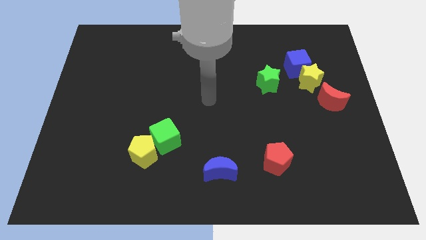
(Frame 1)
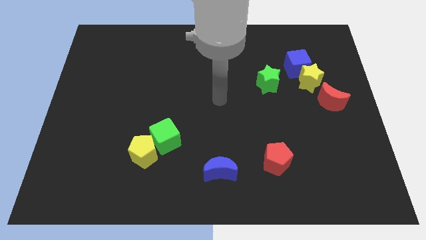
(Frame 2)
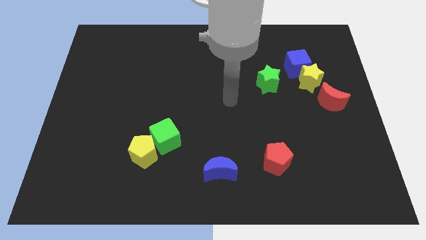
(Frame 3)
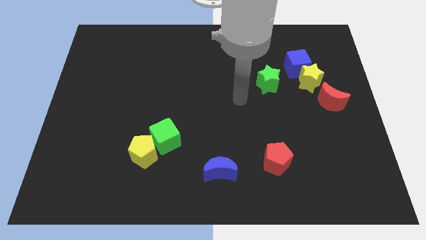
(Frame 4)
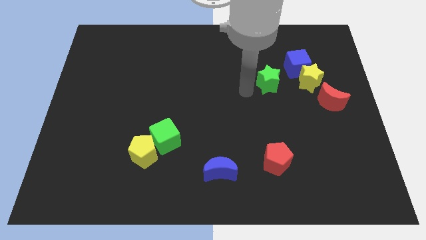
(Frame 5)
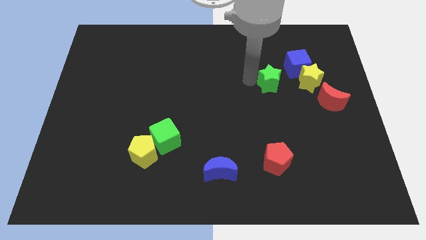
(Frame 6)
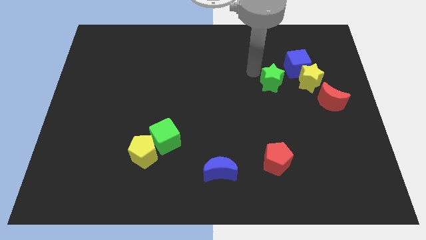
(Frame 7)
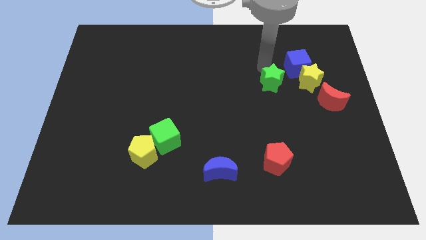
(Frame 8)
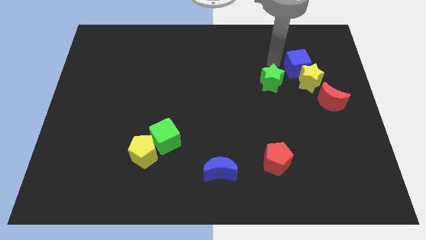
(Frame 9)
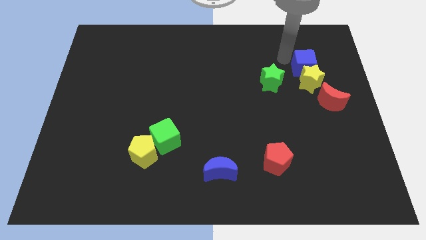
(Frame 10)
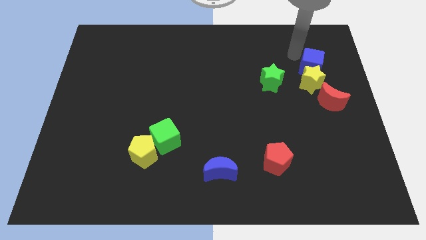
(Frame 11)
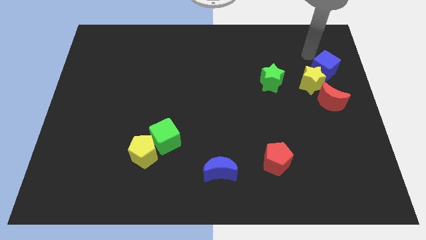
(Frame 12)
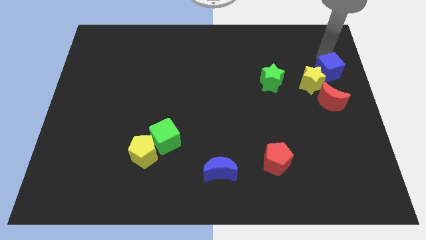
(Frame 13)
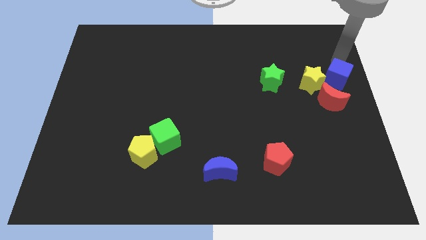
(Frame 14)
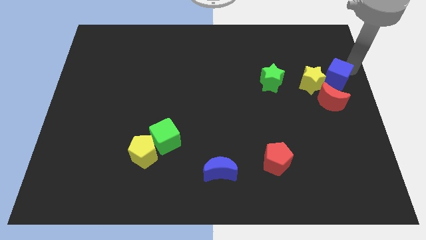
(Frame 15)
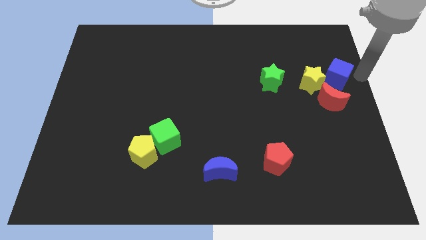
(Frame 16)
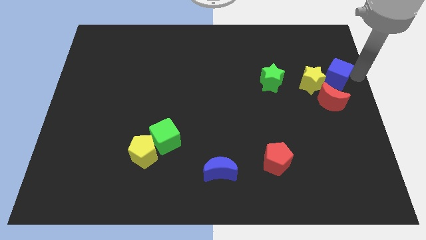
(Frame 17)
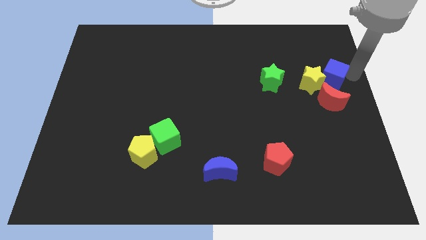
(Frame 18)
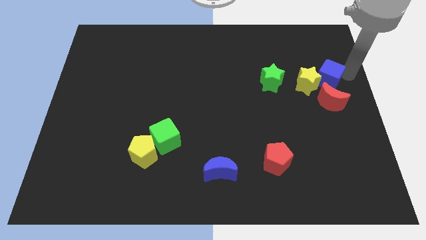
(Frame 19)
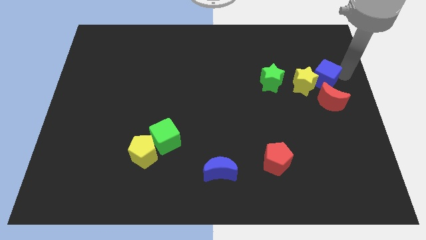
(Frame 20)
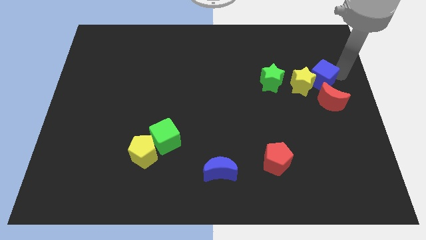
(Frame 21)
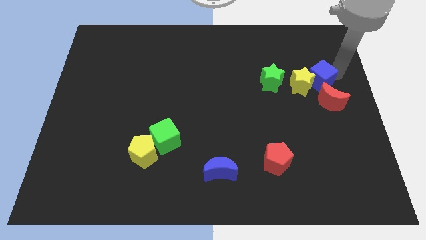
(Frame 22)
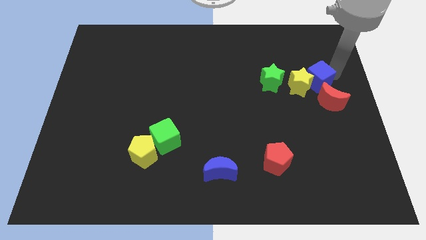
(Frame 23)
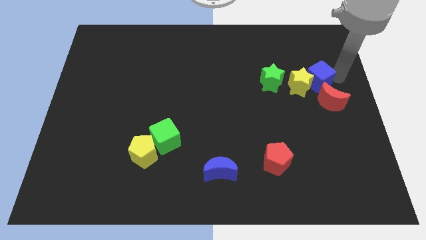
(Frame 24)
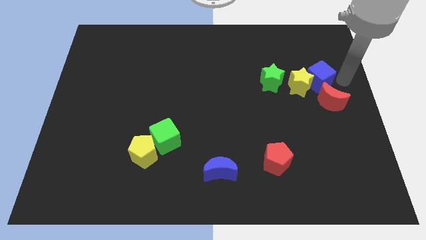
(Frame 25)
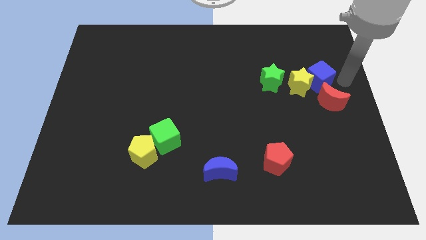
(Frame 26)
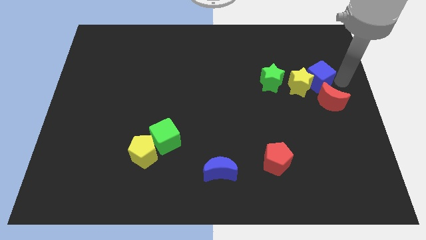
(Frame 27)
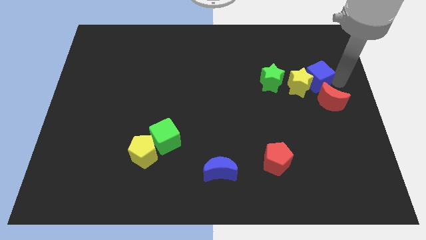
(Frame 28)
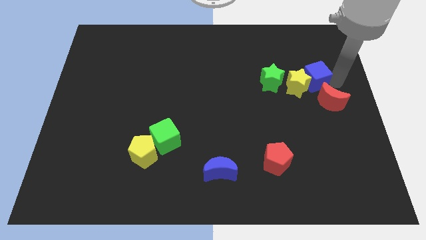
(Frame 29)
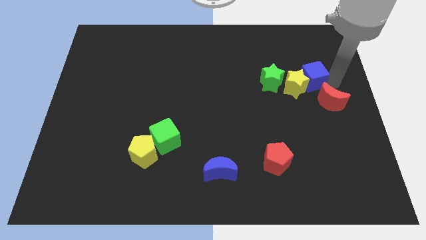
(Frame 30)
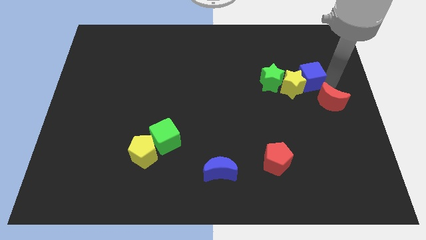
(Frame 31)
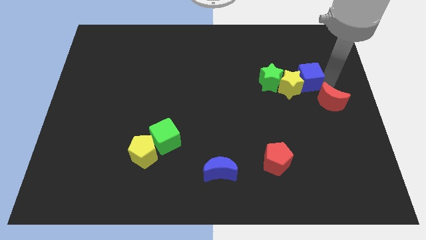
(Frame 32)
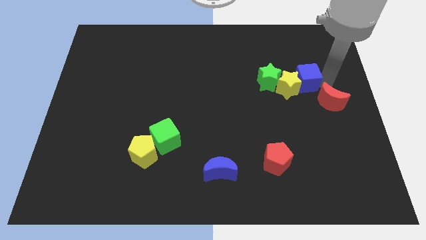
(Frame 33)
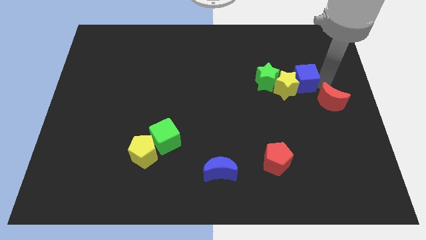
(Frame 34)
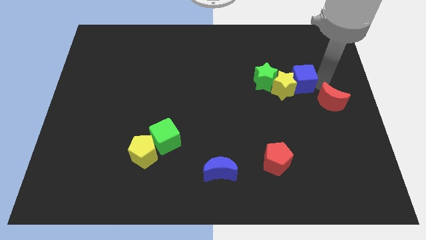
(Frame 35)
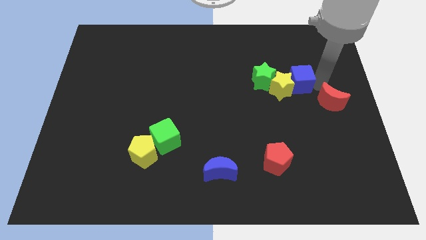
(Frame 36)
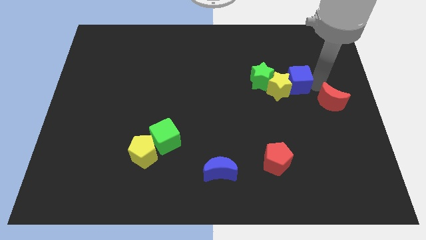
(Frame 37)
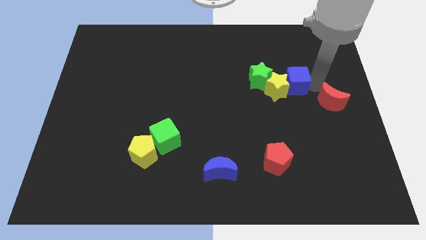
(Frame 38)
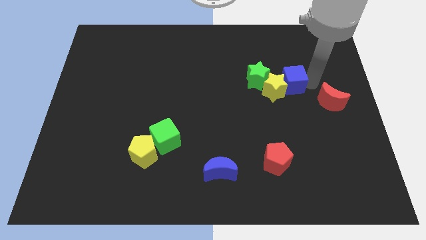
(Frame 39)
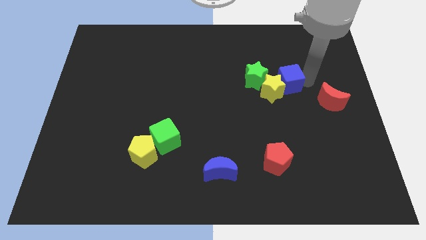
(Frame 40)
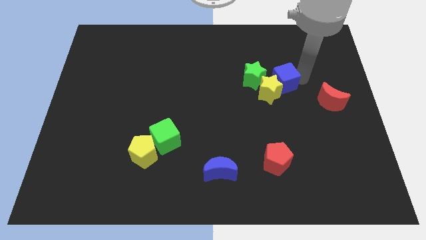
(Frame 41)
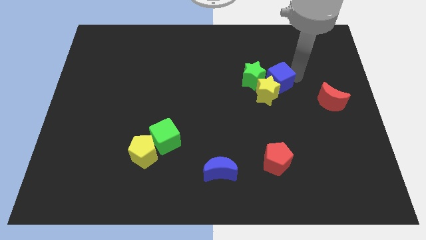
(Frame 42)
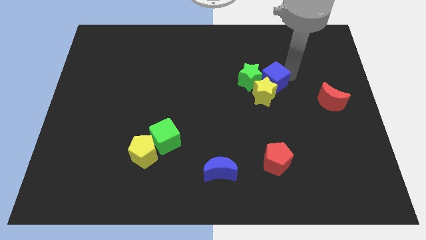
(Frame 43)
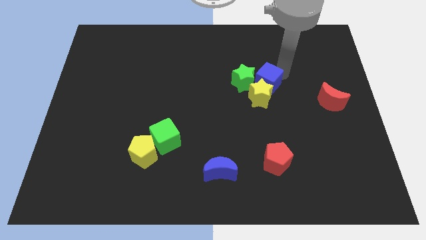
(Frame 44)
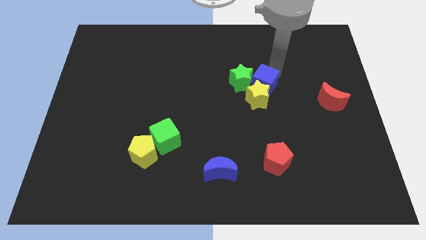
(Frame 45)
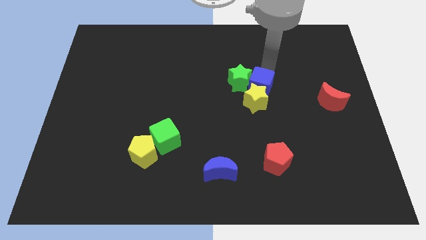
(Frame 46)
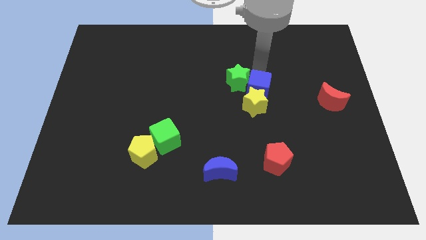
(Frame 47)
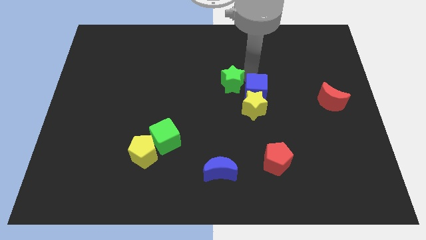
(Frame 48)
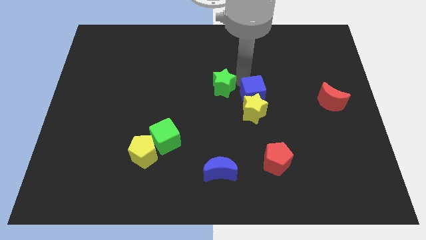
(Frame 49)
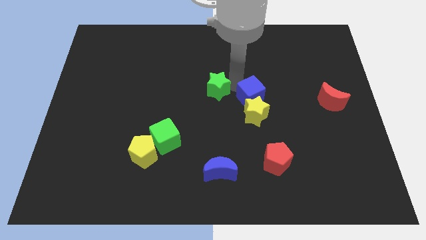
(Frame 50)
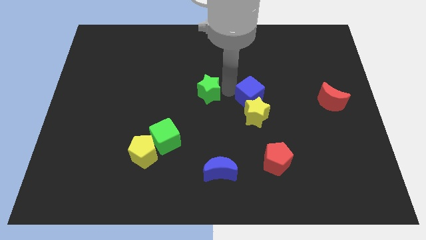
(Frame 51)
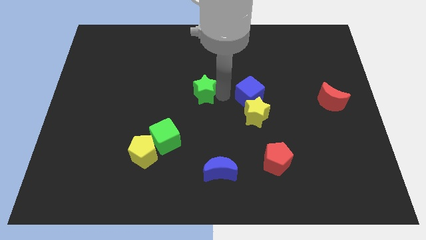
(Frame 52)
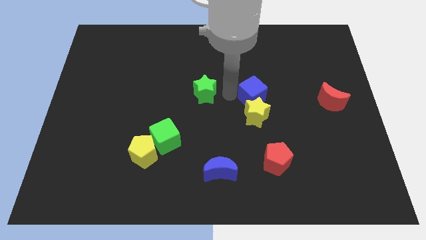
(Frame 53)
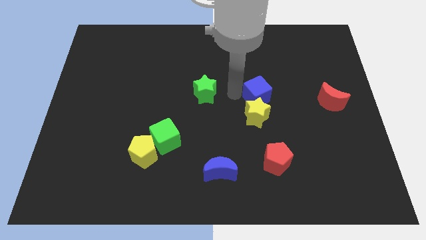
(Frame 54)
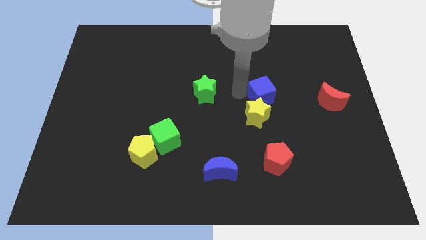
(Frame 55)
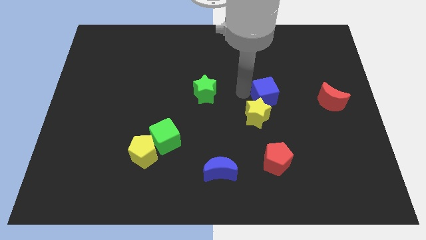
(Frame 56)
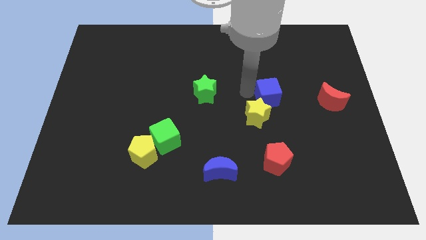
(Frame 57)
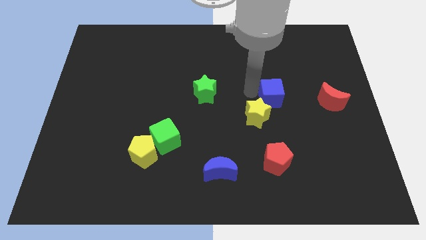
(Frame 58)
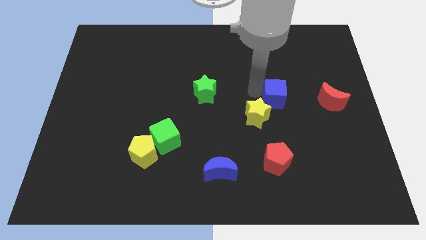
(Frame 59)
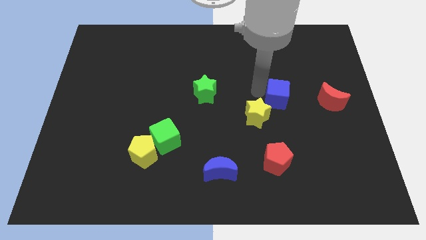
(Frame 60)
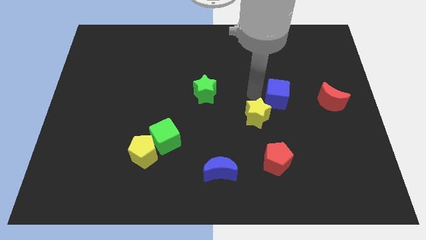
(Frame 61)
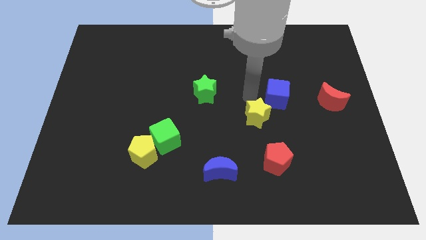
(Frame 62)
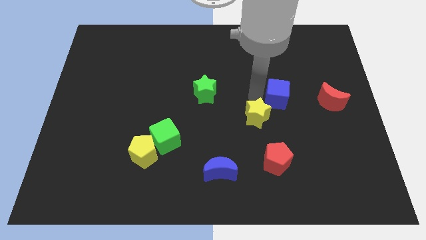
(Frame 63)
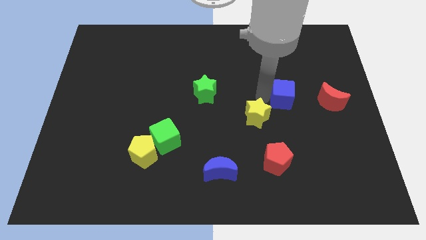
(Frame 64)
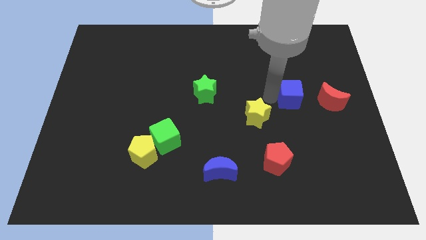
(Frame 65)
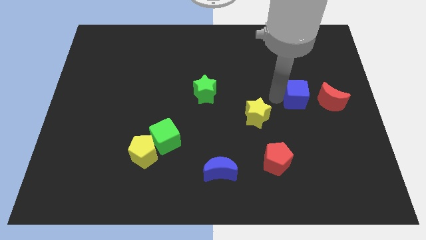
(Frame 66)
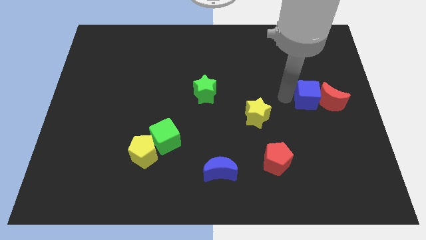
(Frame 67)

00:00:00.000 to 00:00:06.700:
slide the blue cube next to the red moon

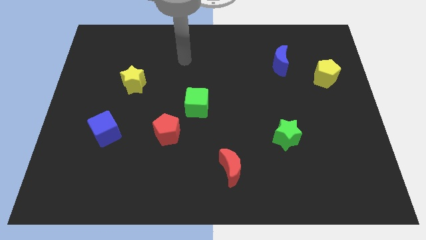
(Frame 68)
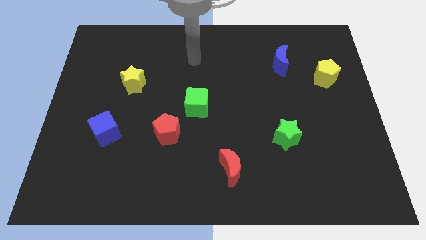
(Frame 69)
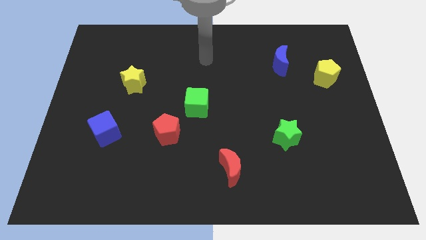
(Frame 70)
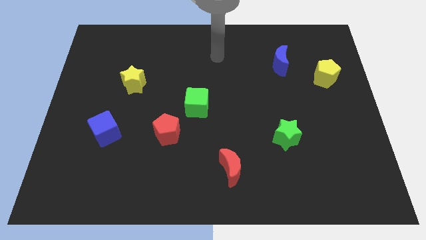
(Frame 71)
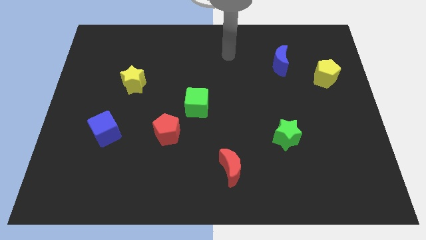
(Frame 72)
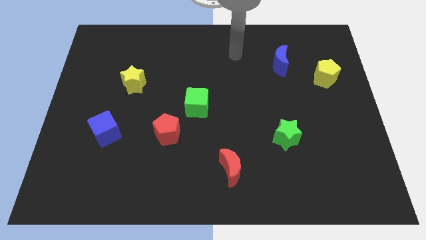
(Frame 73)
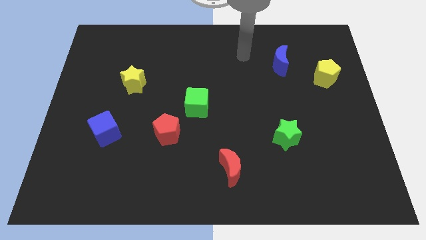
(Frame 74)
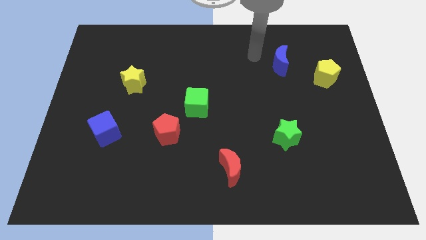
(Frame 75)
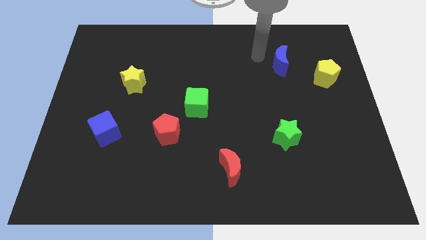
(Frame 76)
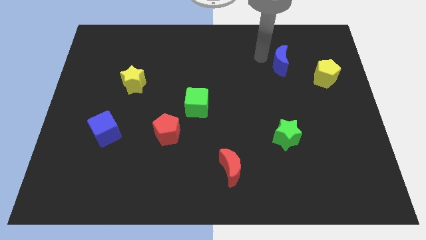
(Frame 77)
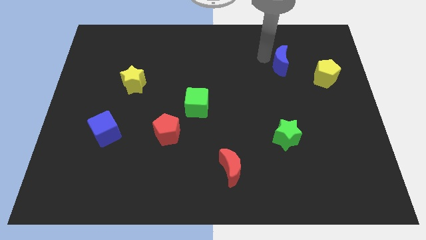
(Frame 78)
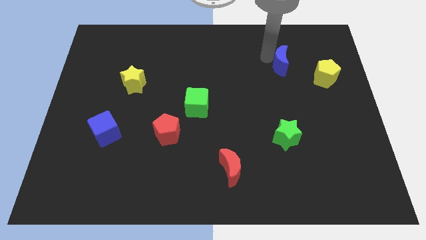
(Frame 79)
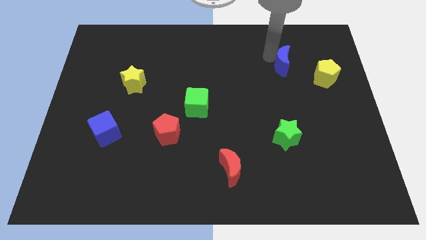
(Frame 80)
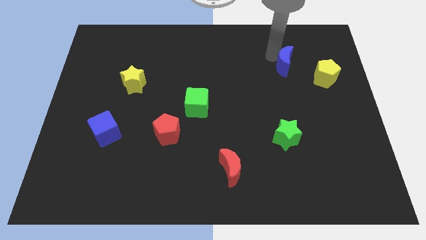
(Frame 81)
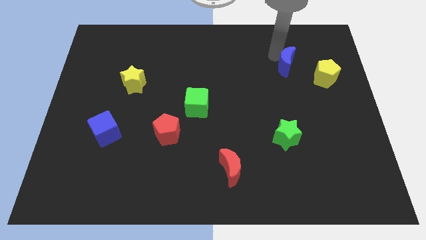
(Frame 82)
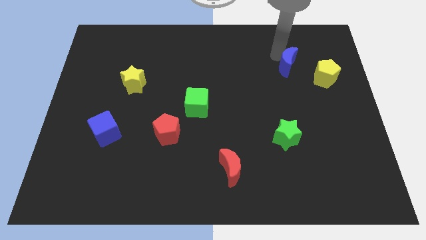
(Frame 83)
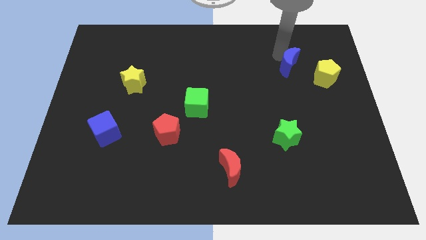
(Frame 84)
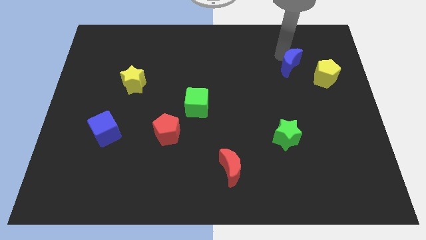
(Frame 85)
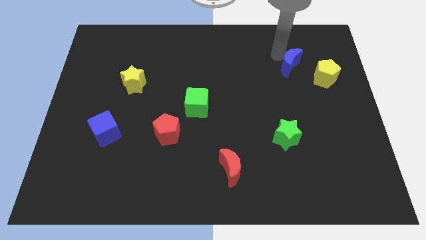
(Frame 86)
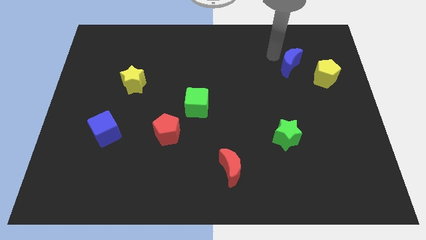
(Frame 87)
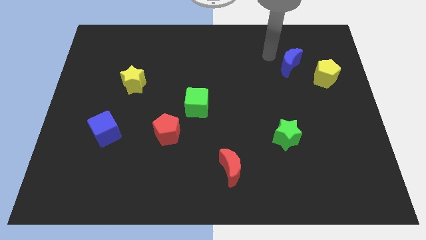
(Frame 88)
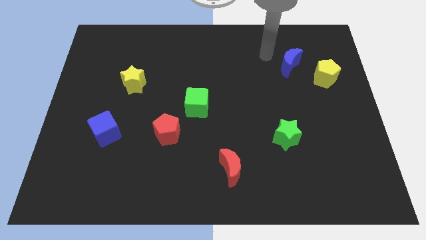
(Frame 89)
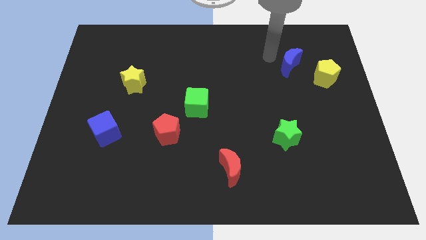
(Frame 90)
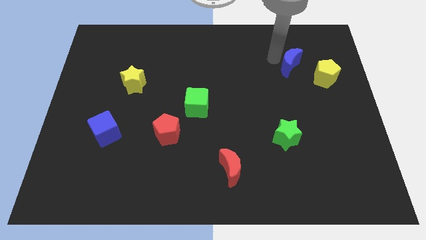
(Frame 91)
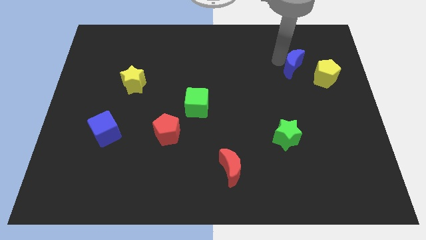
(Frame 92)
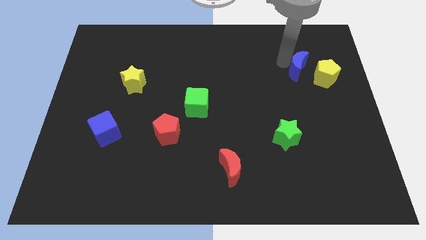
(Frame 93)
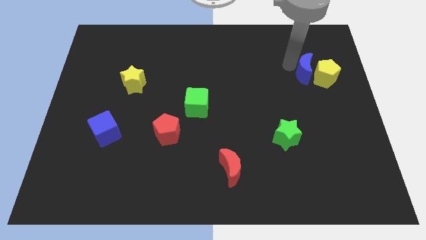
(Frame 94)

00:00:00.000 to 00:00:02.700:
push the blue moon close to the yellow pentagon
